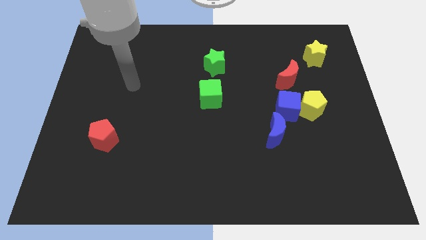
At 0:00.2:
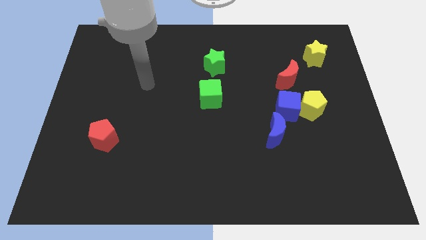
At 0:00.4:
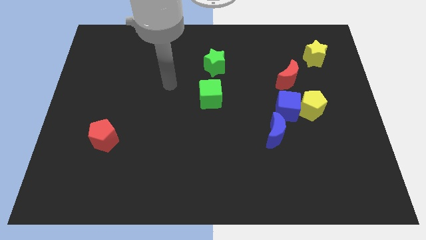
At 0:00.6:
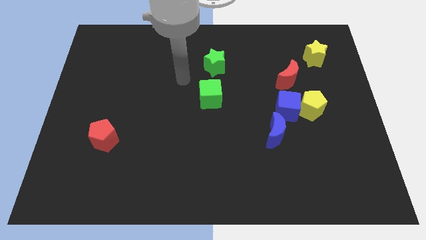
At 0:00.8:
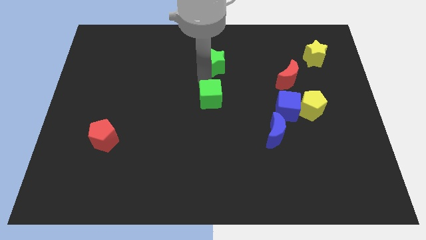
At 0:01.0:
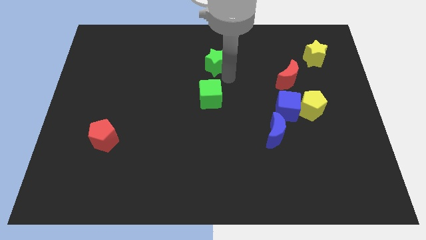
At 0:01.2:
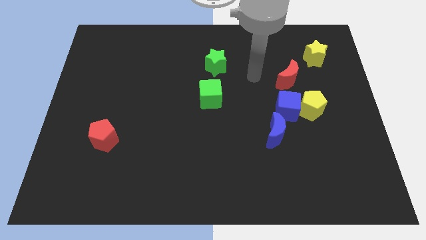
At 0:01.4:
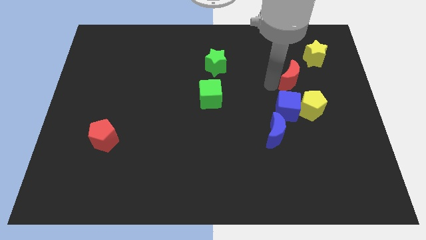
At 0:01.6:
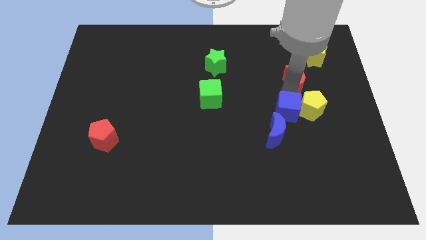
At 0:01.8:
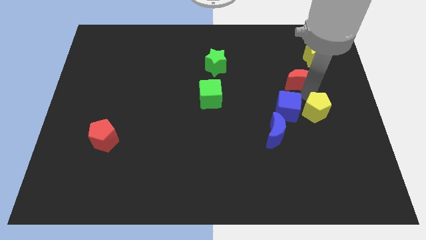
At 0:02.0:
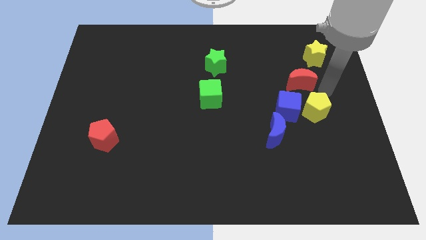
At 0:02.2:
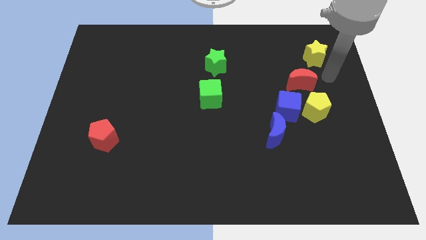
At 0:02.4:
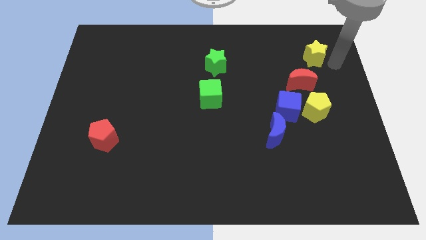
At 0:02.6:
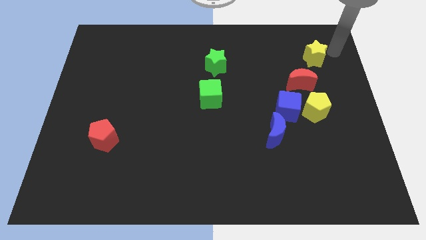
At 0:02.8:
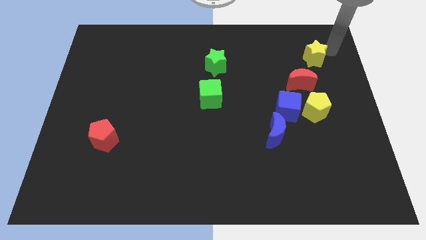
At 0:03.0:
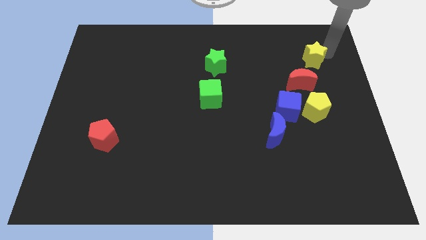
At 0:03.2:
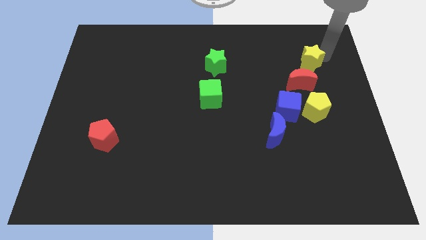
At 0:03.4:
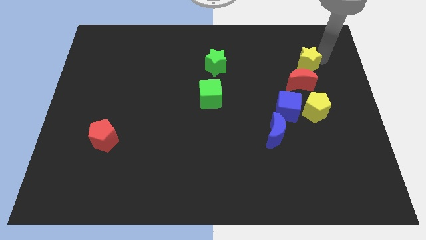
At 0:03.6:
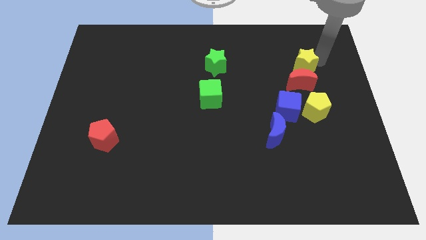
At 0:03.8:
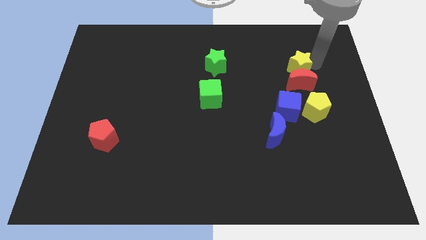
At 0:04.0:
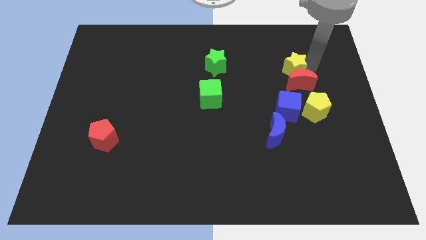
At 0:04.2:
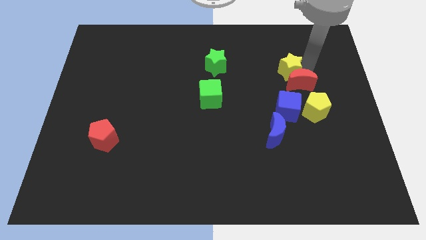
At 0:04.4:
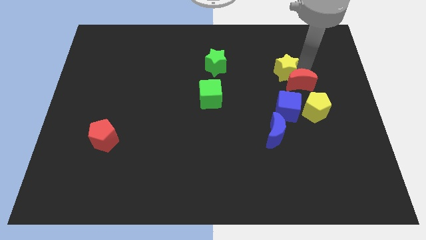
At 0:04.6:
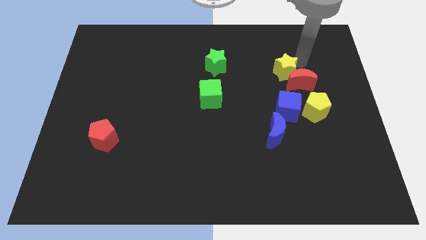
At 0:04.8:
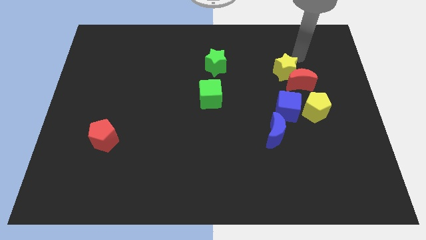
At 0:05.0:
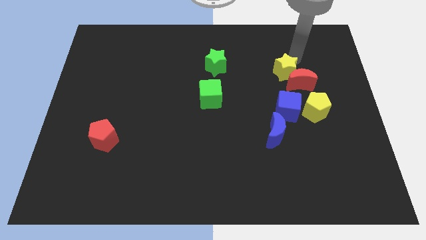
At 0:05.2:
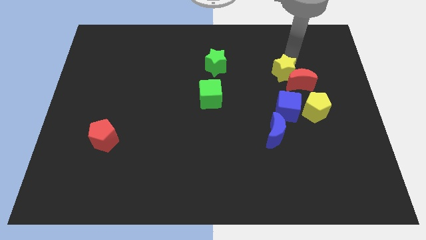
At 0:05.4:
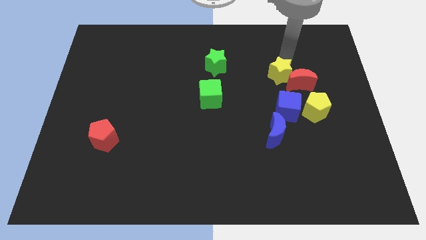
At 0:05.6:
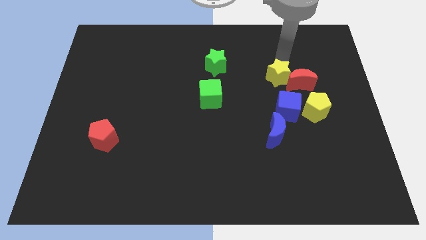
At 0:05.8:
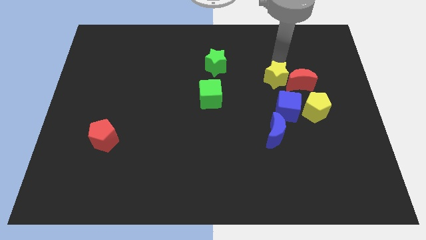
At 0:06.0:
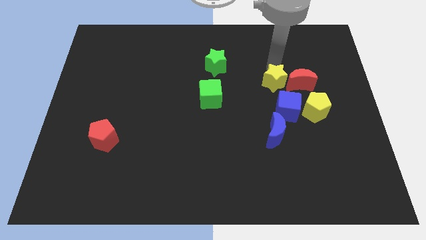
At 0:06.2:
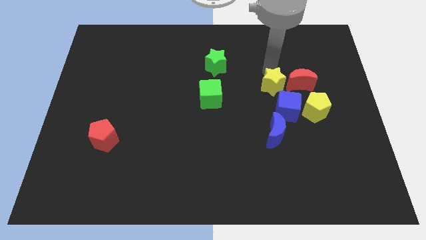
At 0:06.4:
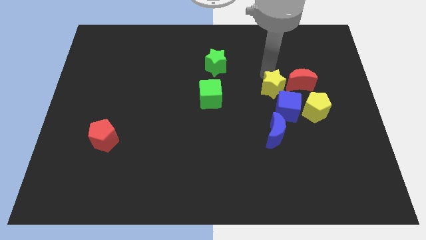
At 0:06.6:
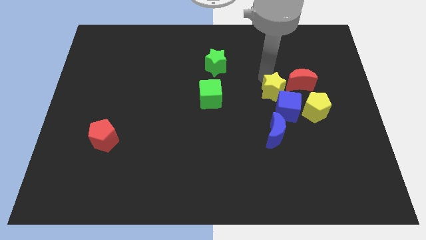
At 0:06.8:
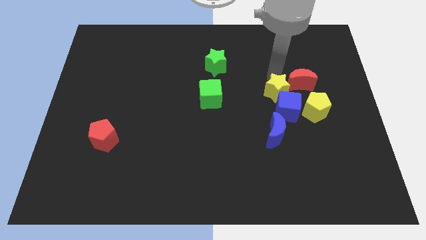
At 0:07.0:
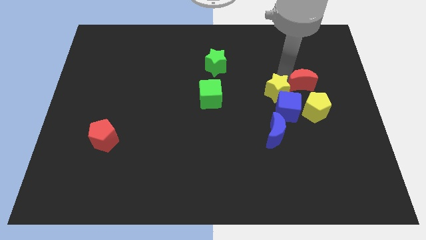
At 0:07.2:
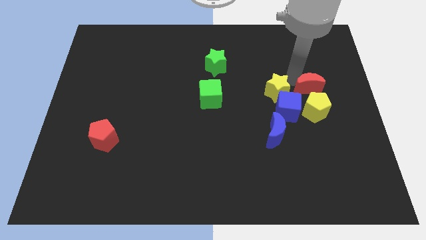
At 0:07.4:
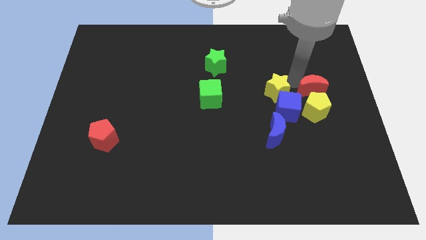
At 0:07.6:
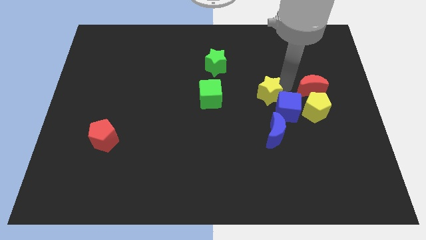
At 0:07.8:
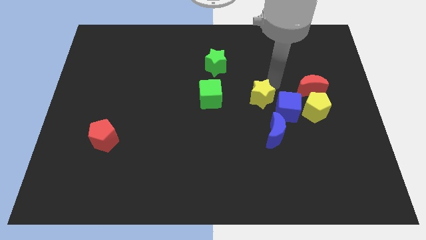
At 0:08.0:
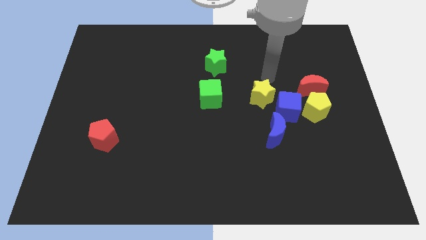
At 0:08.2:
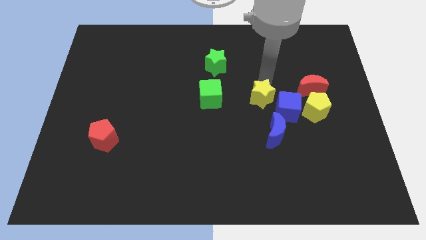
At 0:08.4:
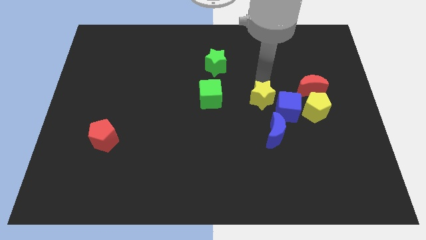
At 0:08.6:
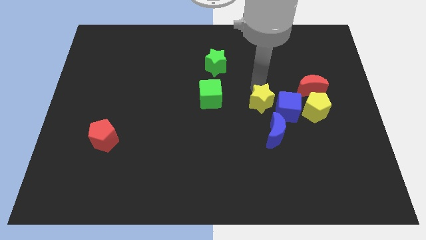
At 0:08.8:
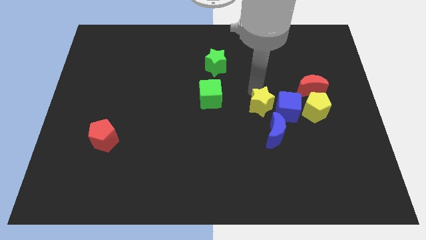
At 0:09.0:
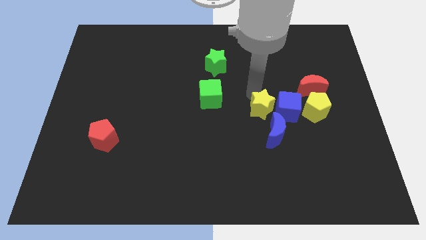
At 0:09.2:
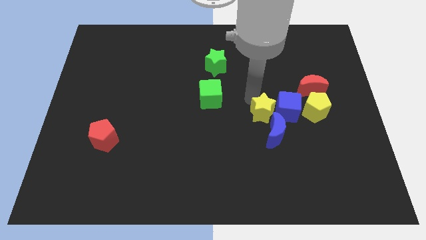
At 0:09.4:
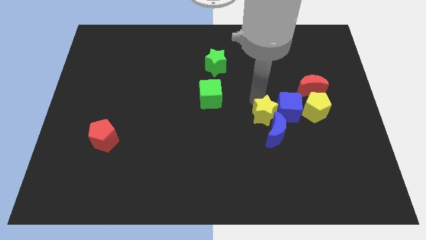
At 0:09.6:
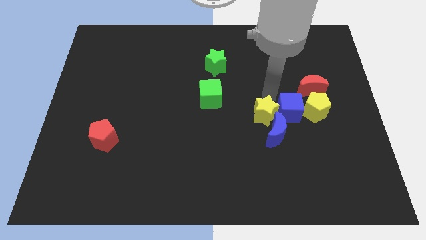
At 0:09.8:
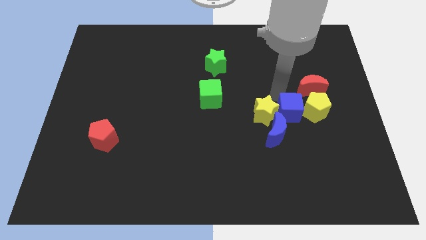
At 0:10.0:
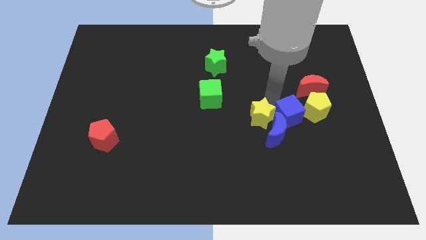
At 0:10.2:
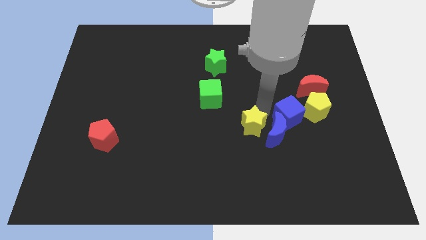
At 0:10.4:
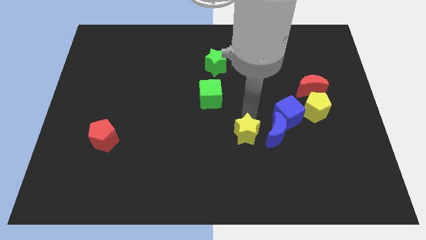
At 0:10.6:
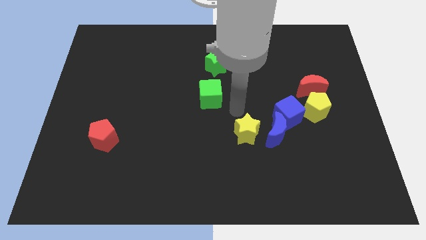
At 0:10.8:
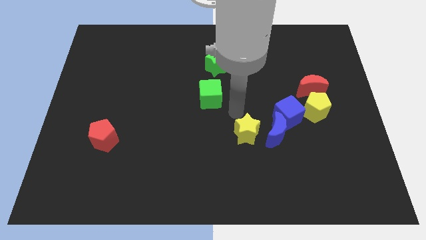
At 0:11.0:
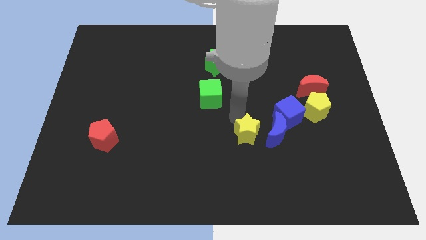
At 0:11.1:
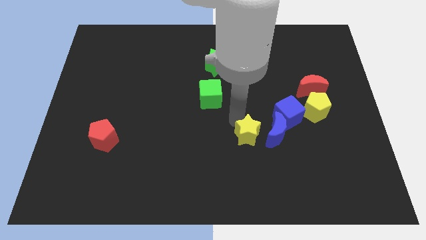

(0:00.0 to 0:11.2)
push the yellow star to the bottom left of the blue moon

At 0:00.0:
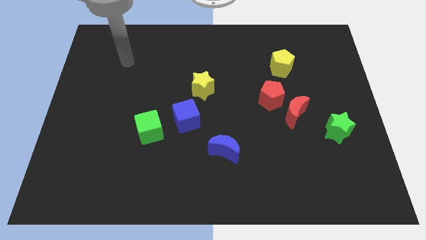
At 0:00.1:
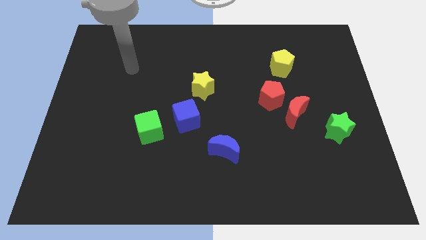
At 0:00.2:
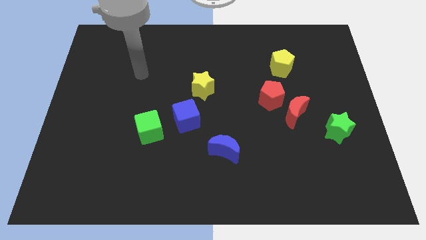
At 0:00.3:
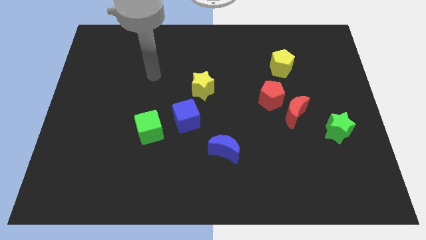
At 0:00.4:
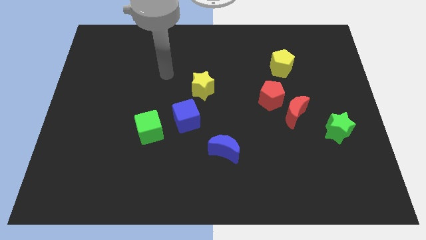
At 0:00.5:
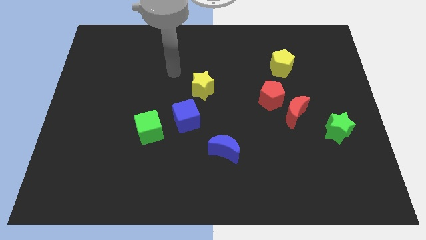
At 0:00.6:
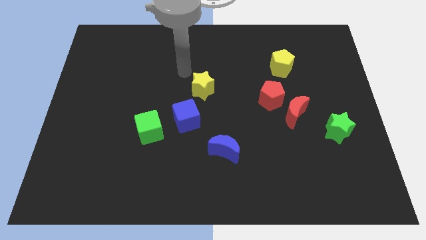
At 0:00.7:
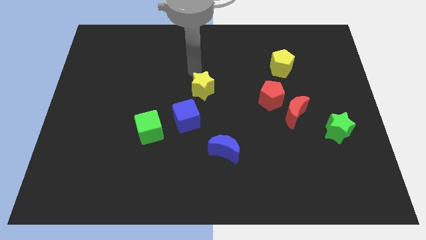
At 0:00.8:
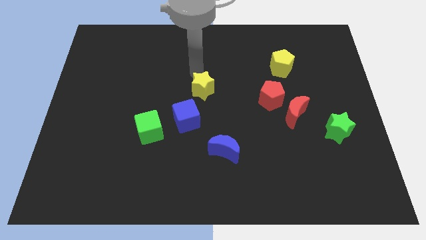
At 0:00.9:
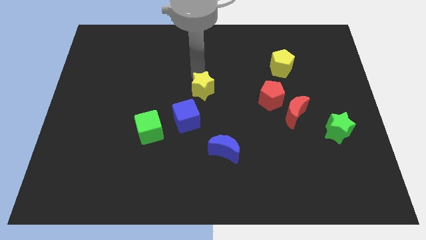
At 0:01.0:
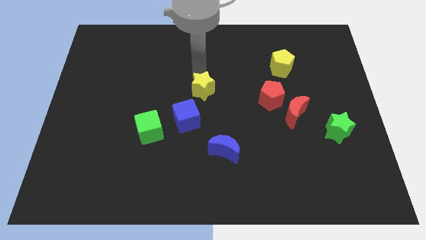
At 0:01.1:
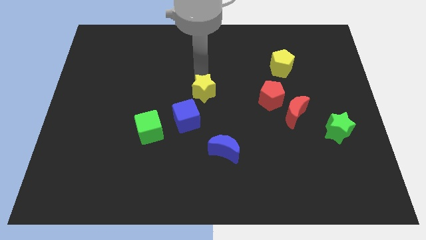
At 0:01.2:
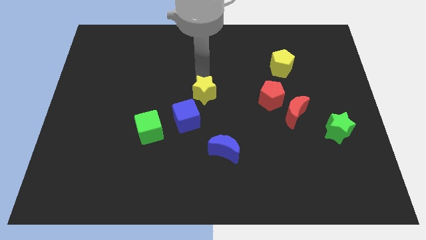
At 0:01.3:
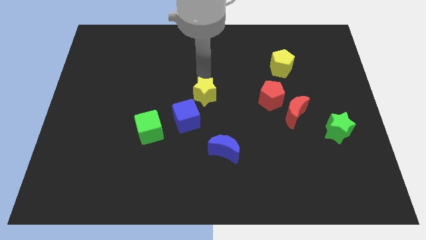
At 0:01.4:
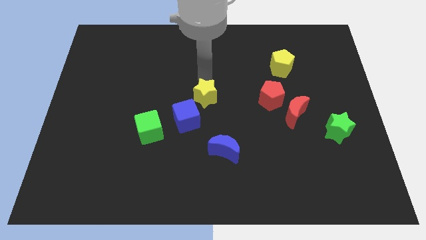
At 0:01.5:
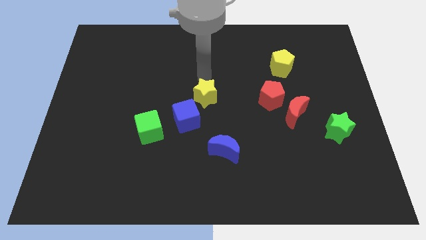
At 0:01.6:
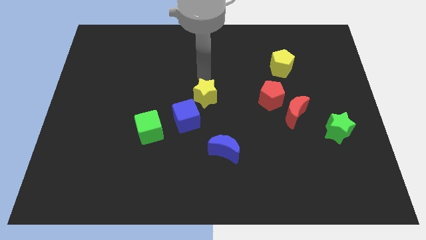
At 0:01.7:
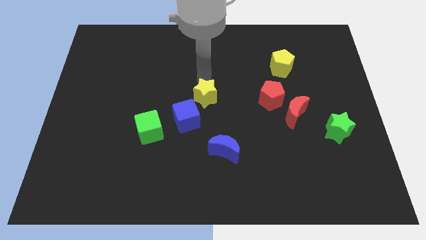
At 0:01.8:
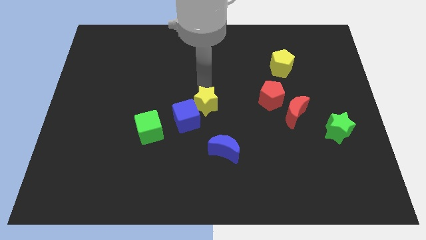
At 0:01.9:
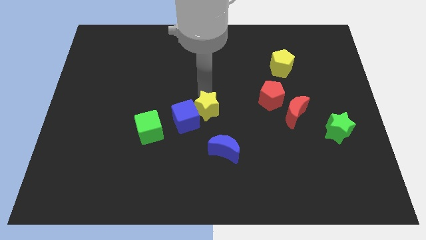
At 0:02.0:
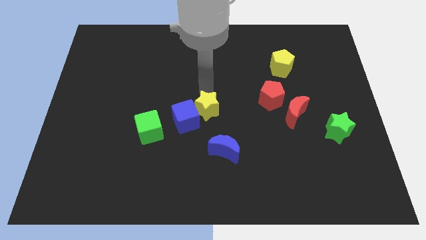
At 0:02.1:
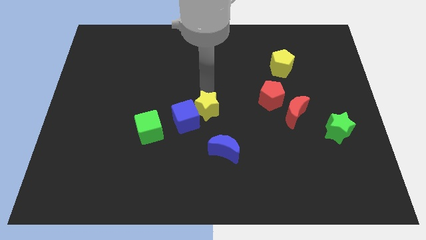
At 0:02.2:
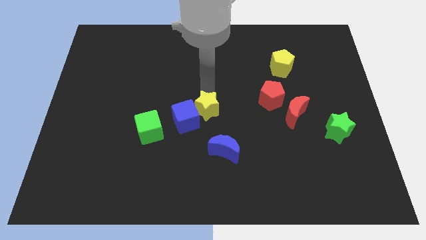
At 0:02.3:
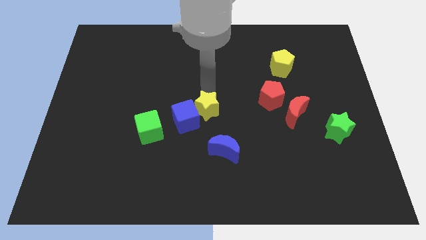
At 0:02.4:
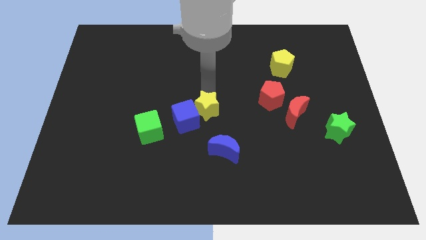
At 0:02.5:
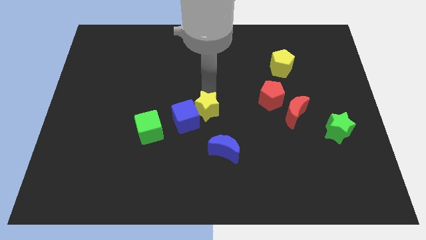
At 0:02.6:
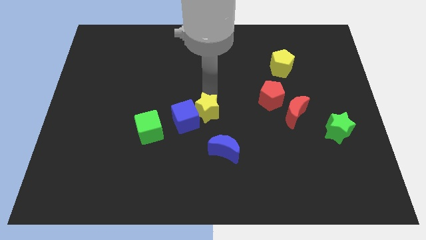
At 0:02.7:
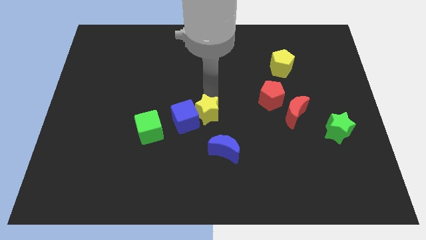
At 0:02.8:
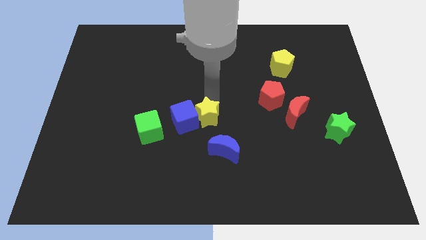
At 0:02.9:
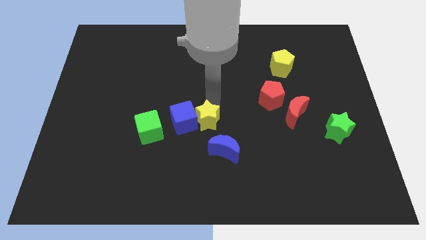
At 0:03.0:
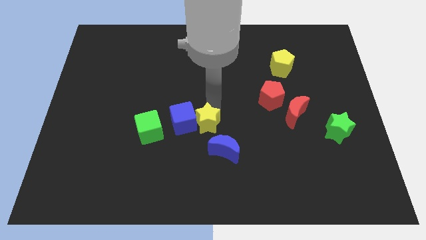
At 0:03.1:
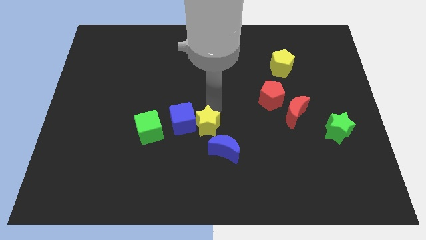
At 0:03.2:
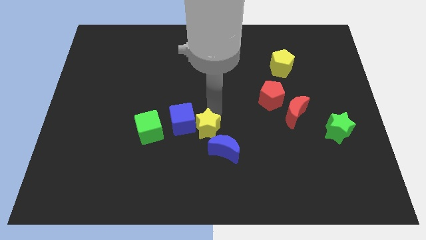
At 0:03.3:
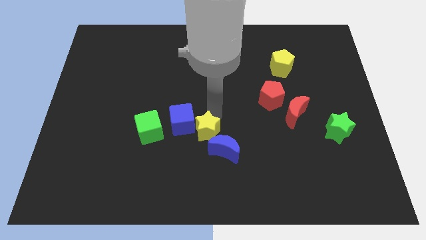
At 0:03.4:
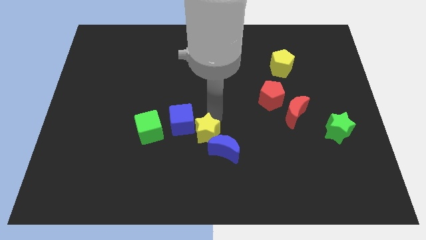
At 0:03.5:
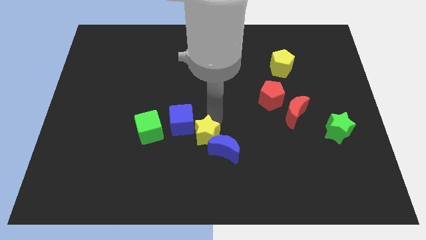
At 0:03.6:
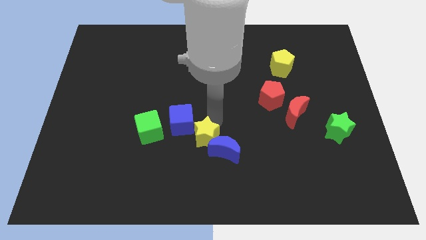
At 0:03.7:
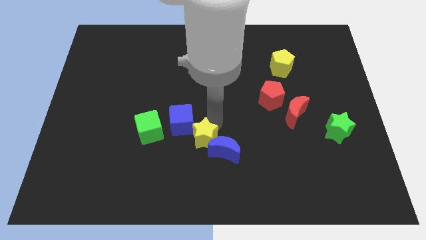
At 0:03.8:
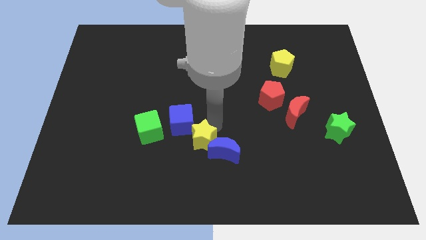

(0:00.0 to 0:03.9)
move the yellow star to the bottom side of the blue cube
